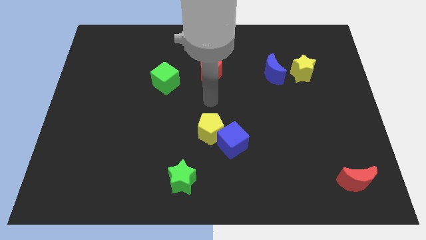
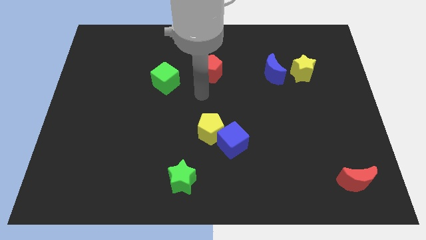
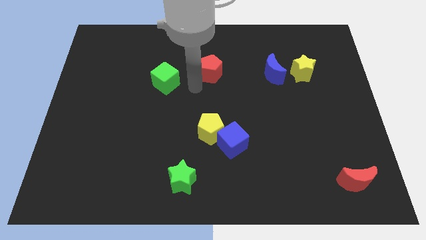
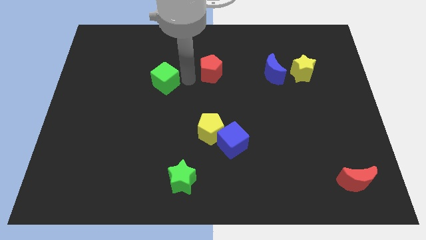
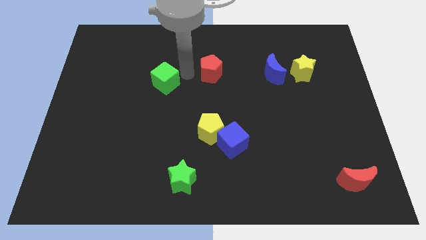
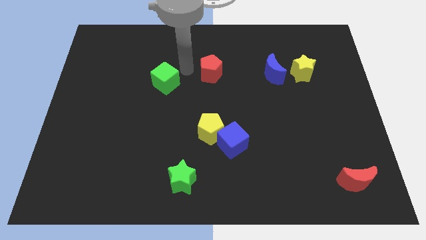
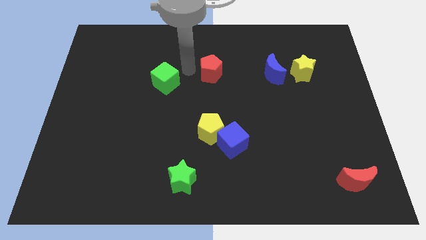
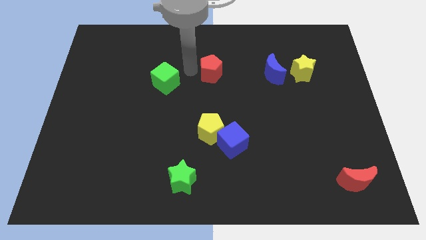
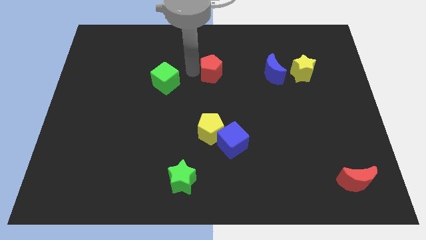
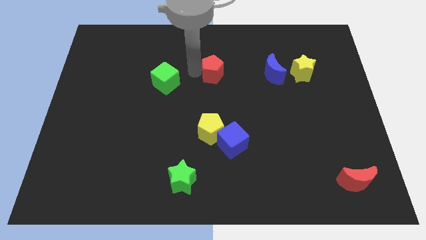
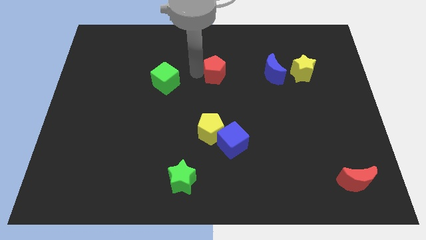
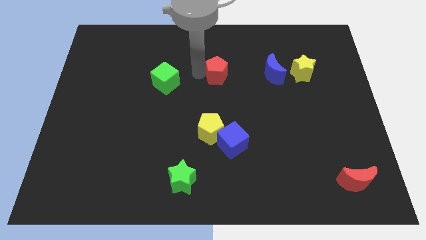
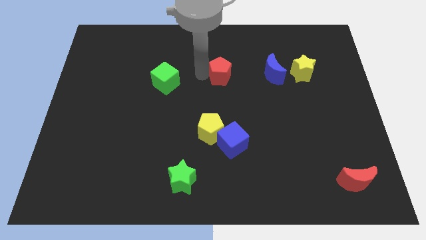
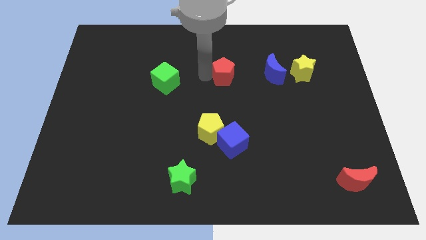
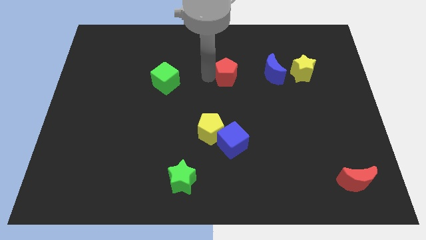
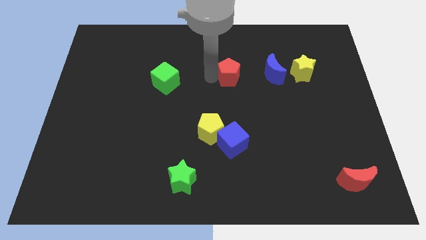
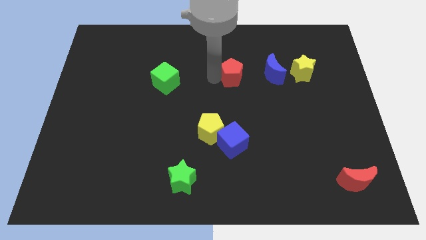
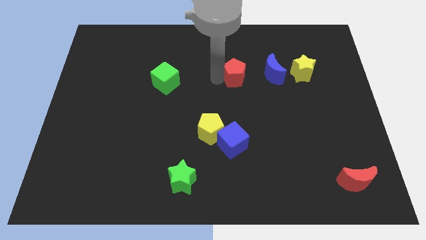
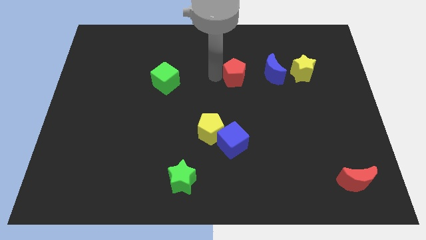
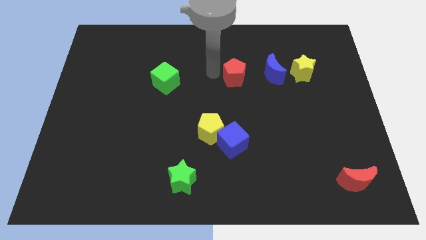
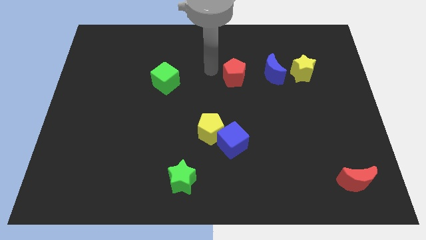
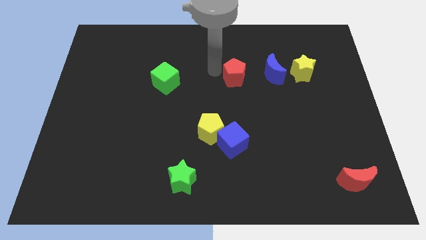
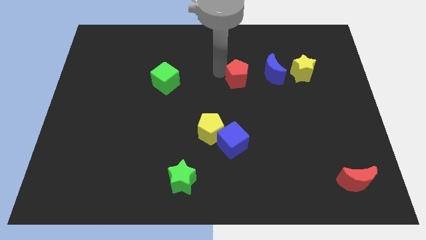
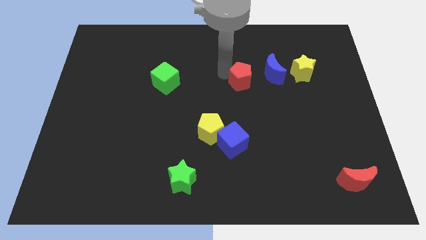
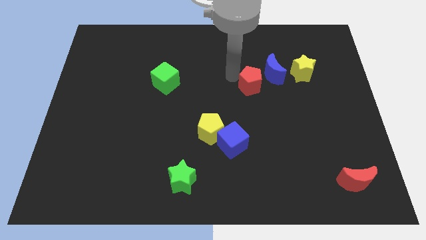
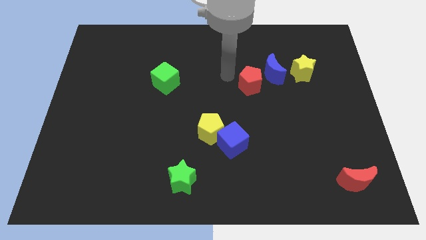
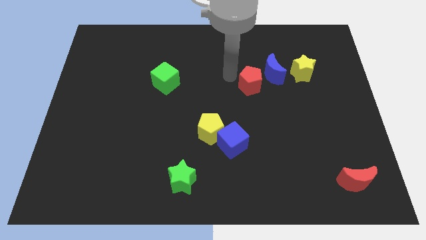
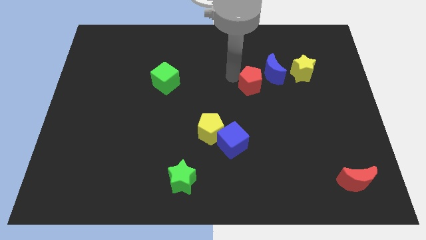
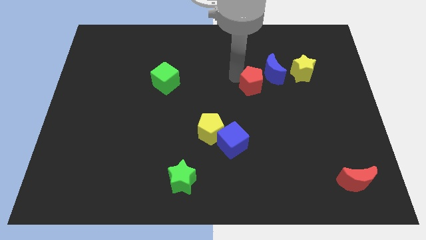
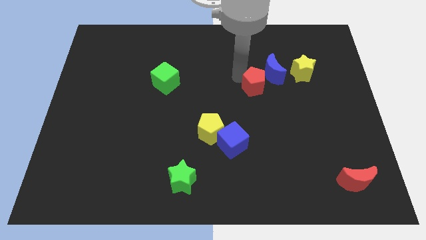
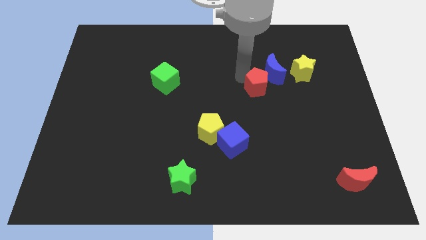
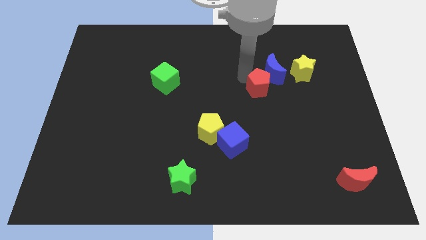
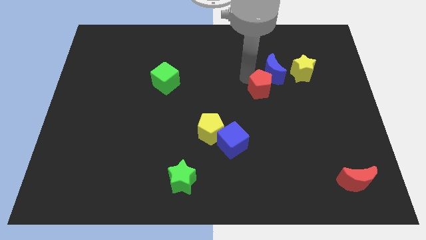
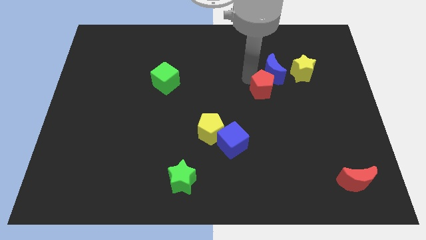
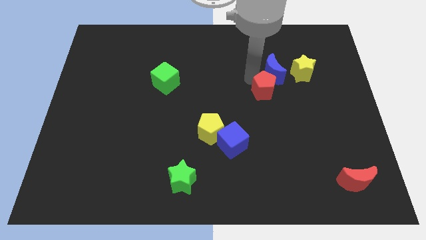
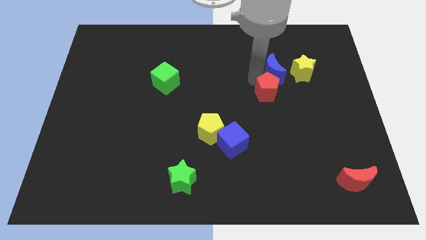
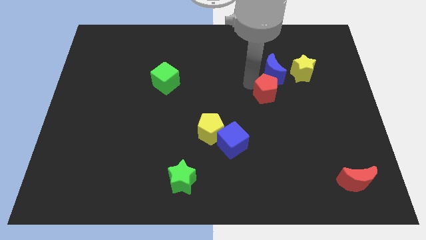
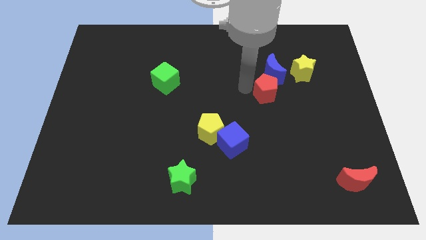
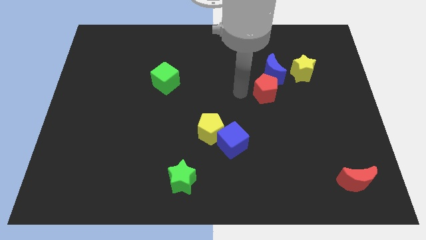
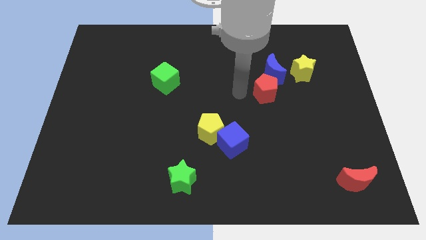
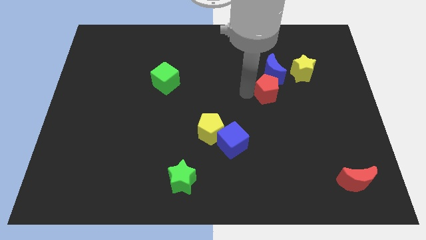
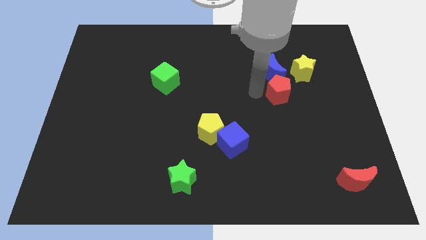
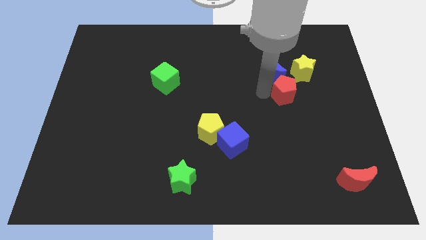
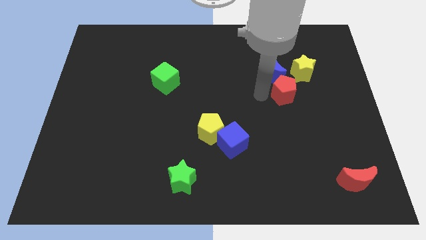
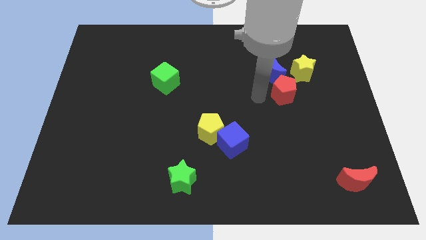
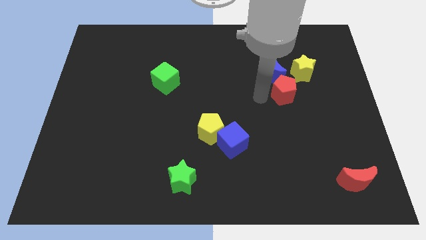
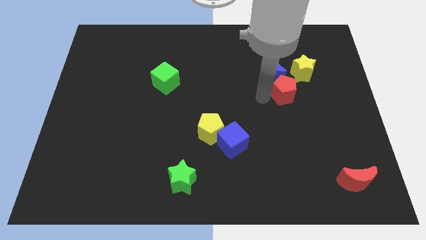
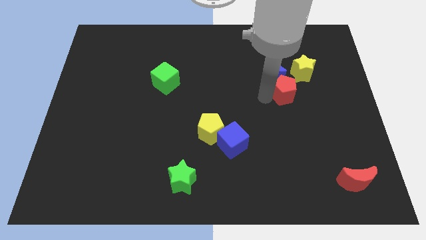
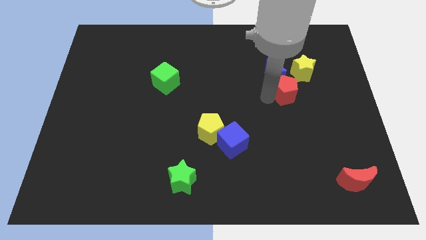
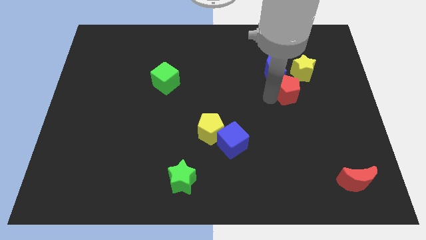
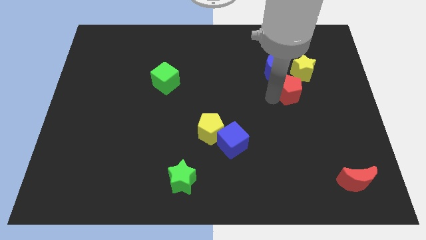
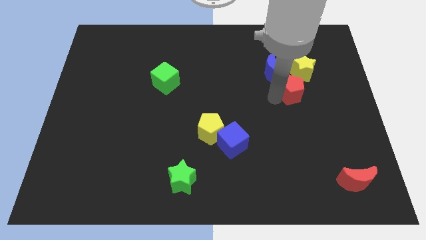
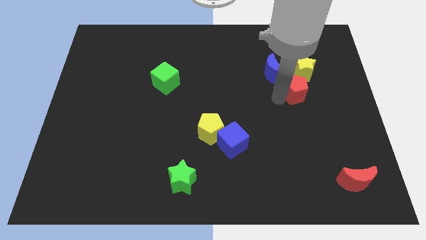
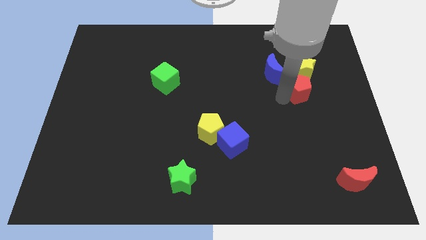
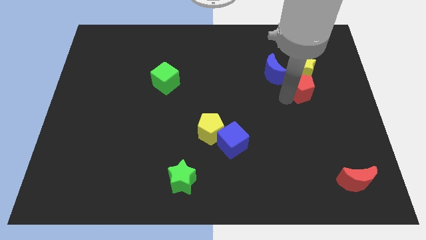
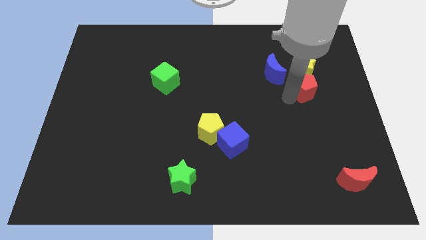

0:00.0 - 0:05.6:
put the red pentagon to the bottom right of the yellow star

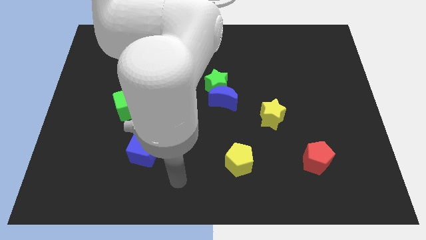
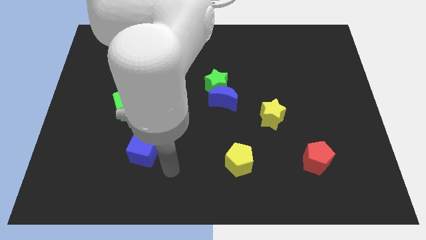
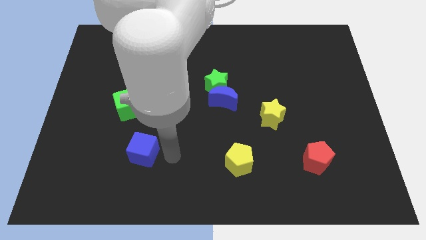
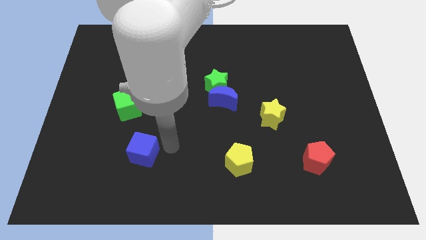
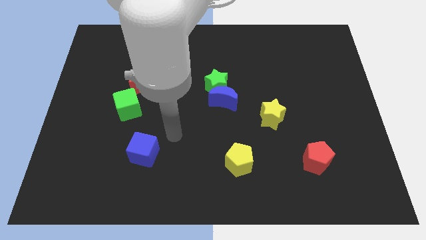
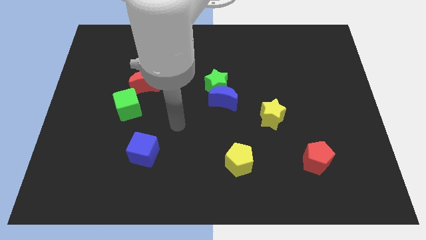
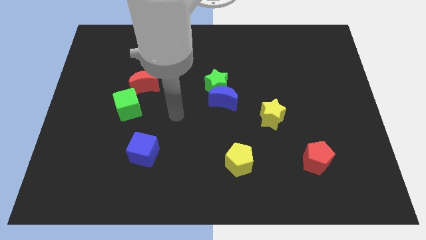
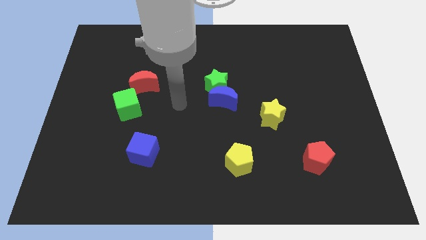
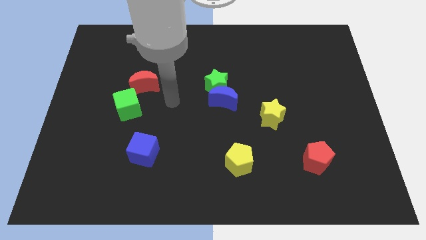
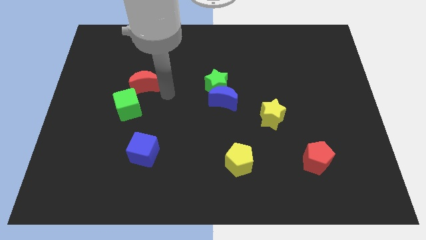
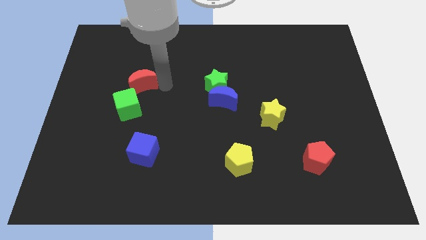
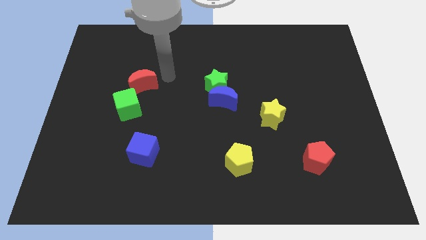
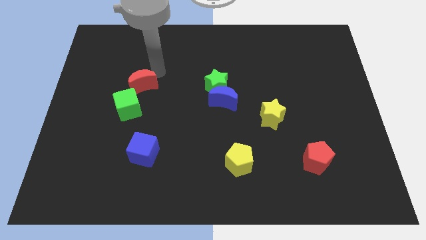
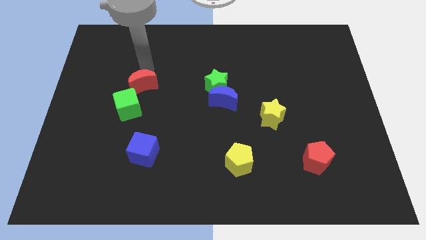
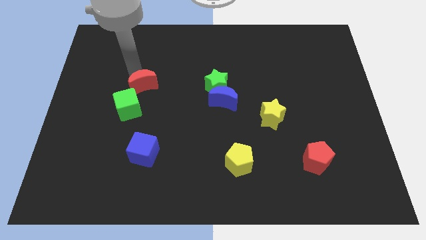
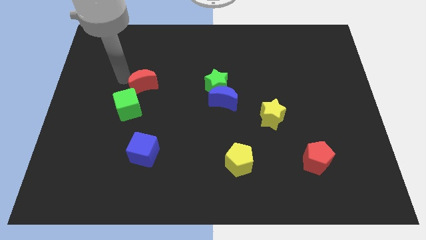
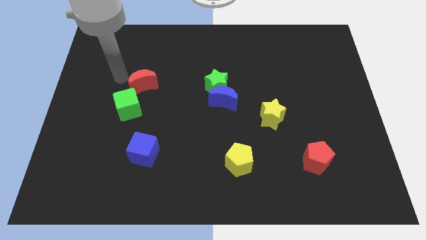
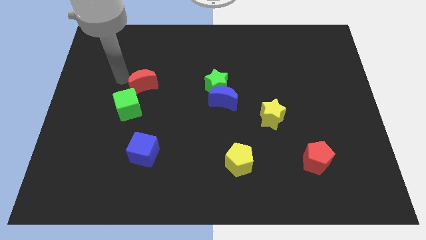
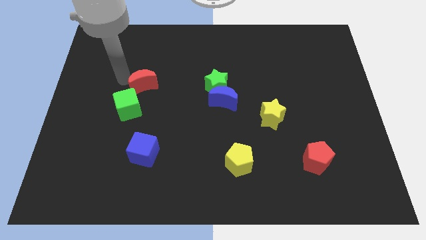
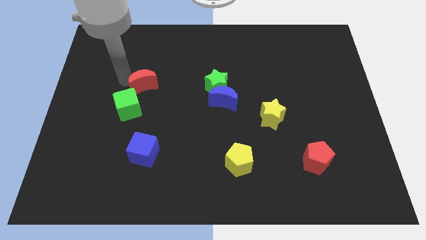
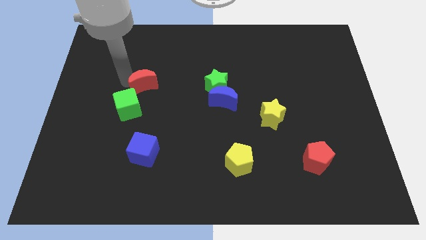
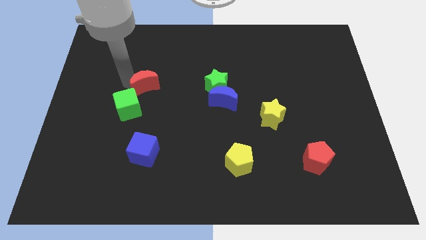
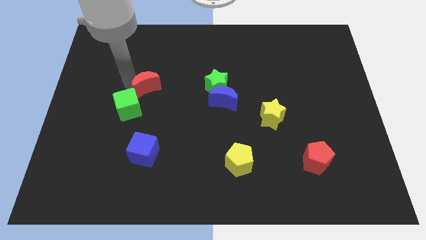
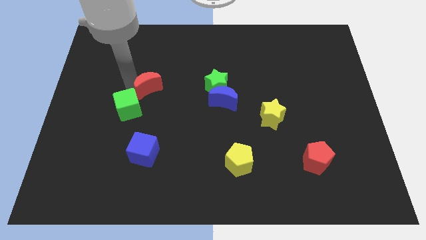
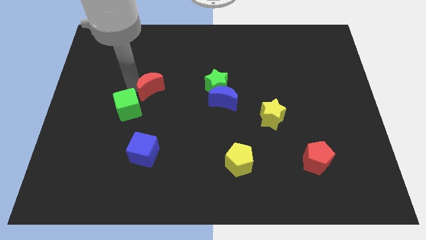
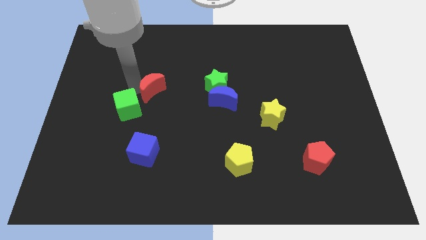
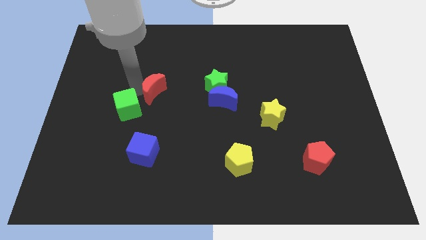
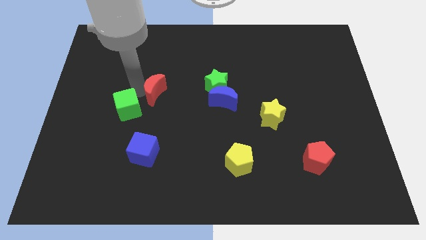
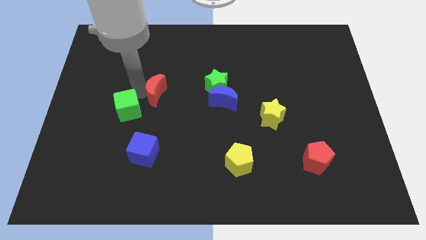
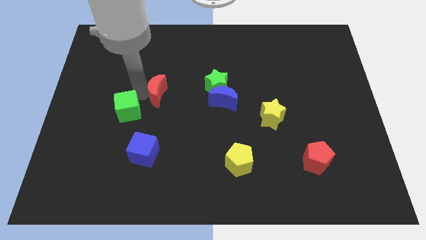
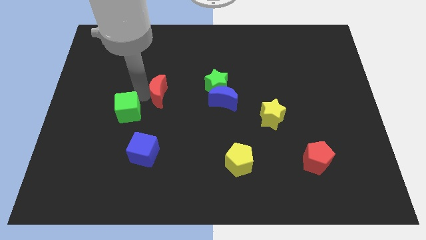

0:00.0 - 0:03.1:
put the red moon to the left side of the blue moon
